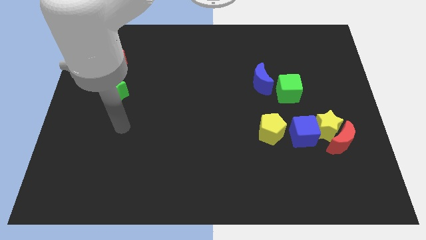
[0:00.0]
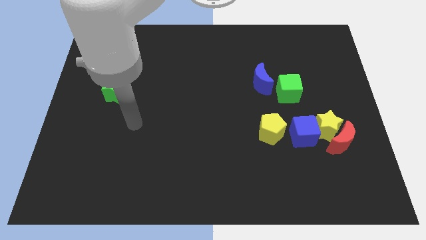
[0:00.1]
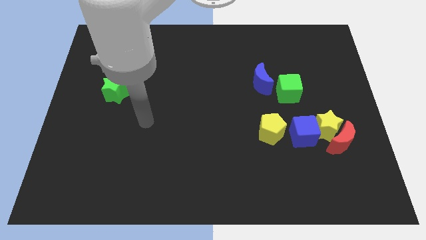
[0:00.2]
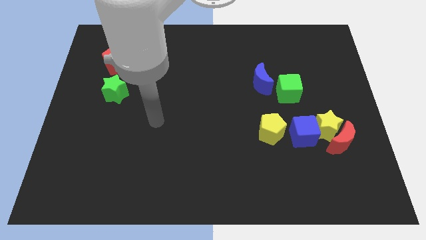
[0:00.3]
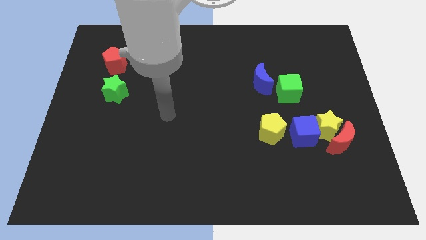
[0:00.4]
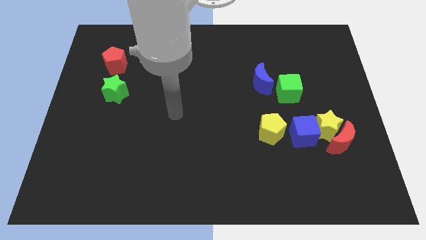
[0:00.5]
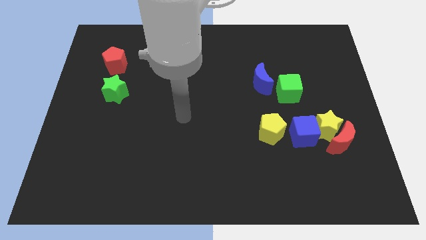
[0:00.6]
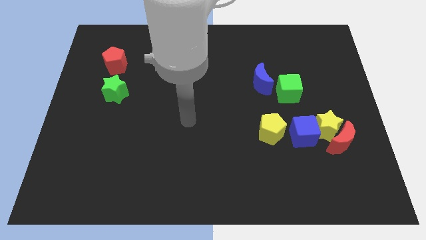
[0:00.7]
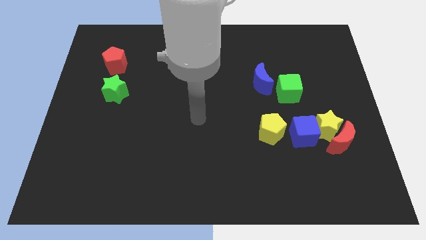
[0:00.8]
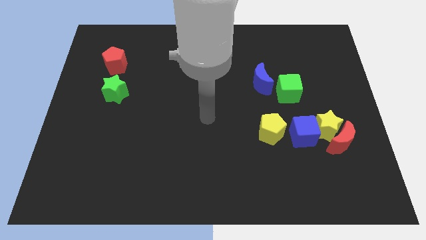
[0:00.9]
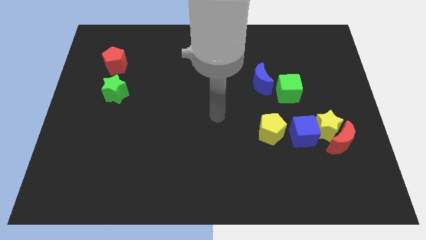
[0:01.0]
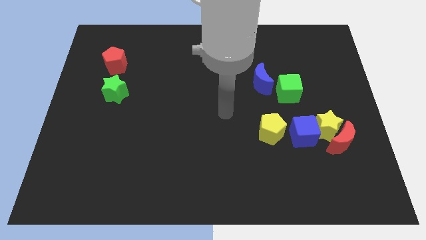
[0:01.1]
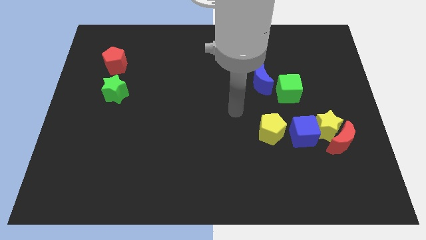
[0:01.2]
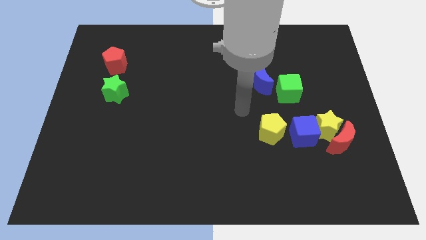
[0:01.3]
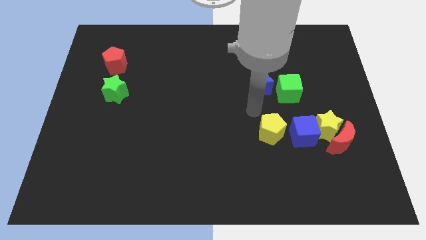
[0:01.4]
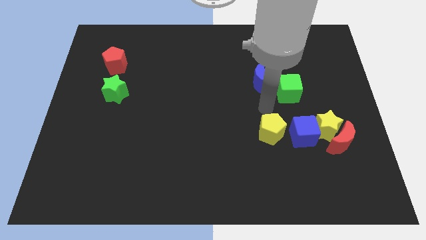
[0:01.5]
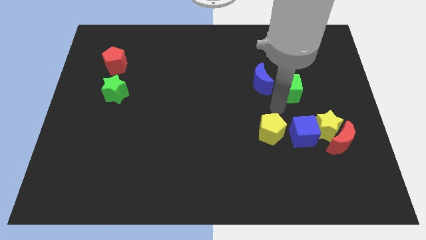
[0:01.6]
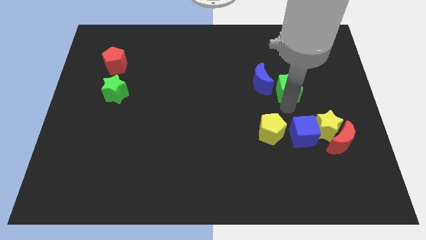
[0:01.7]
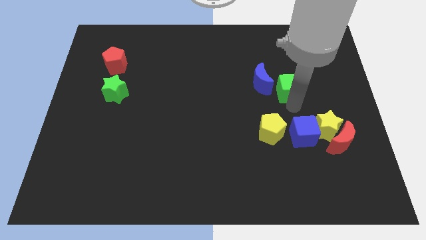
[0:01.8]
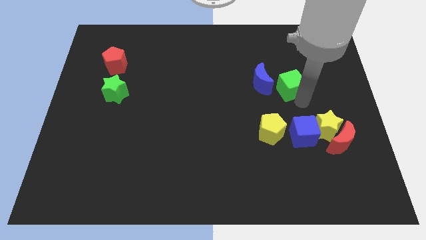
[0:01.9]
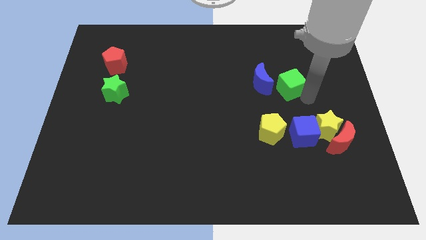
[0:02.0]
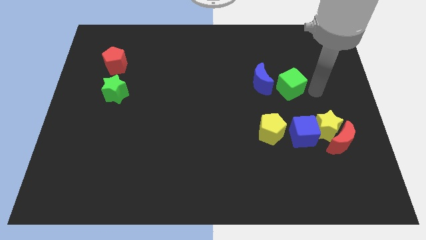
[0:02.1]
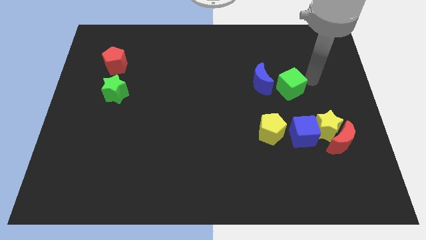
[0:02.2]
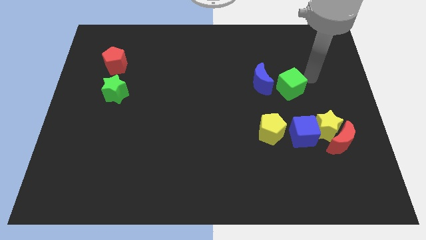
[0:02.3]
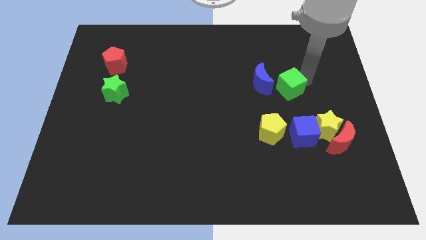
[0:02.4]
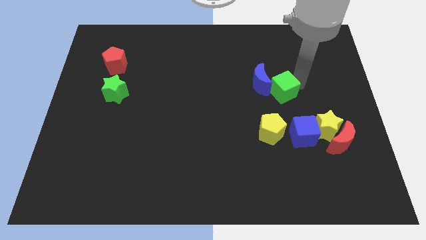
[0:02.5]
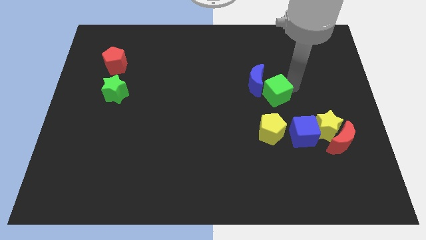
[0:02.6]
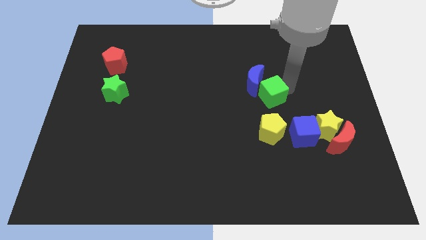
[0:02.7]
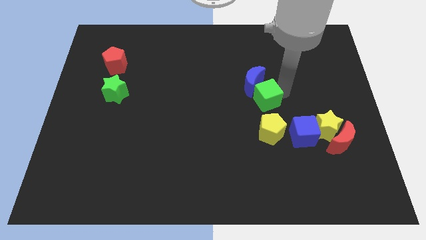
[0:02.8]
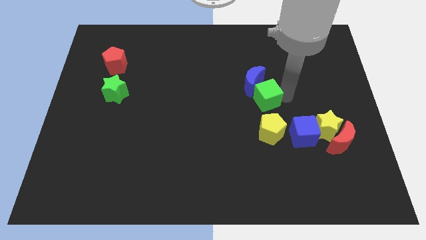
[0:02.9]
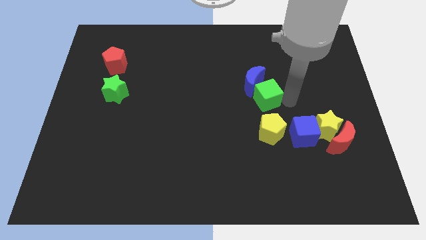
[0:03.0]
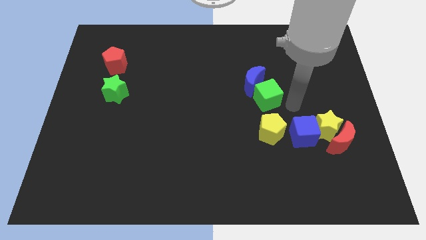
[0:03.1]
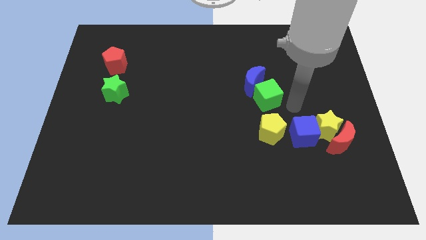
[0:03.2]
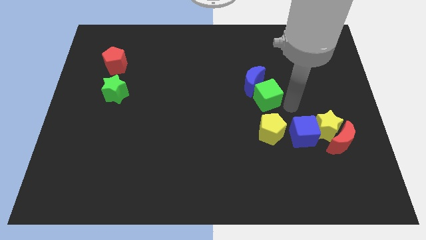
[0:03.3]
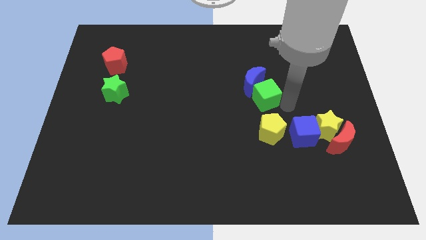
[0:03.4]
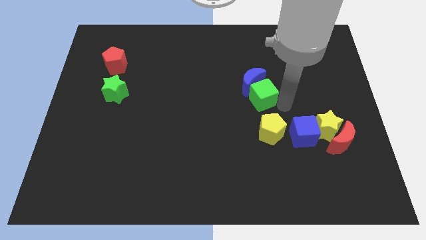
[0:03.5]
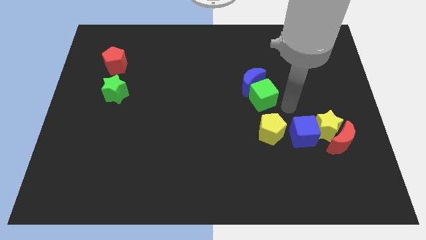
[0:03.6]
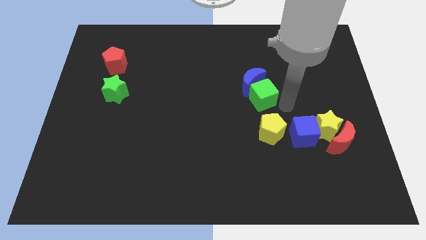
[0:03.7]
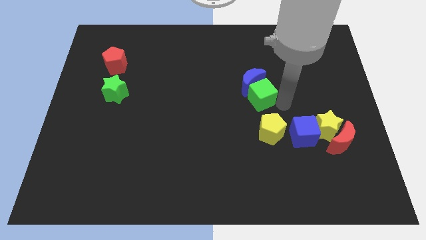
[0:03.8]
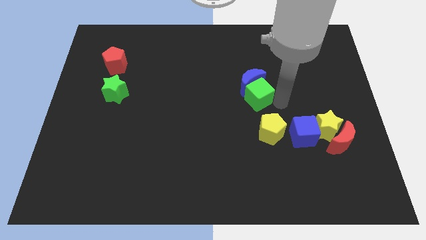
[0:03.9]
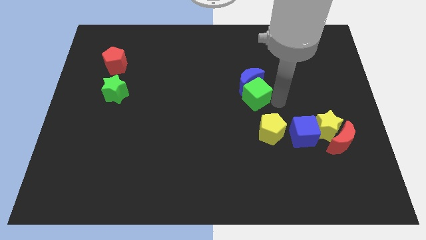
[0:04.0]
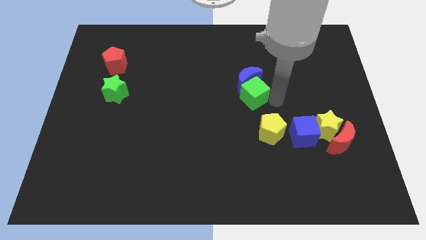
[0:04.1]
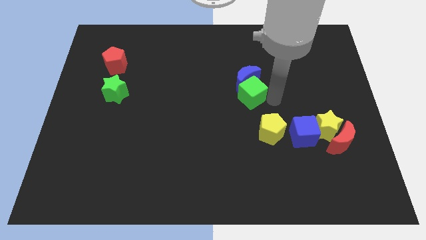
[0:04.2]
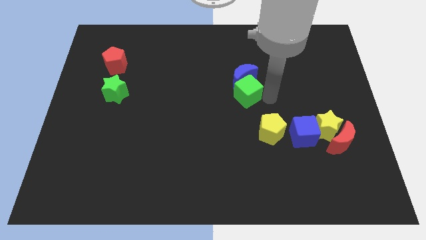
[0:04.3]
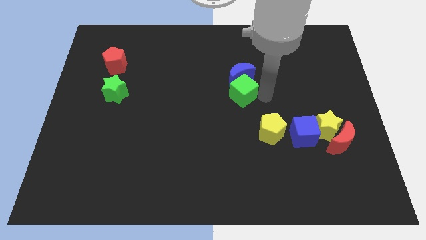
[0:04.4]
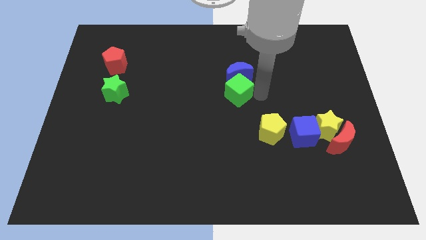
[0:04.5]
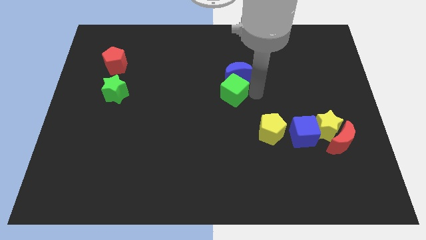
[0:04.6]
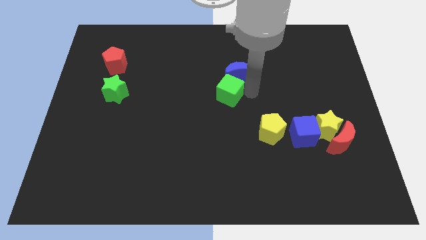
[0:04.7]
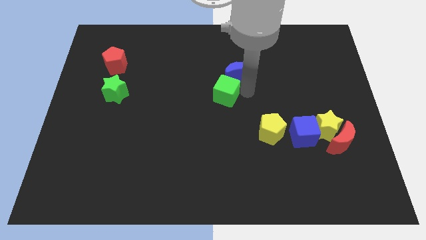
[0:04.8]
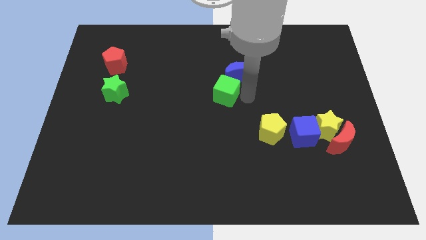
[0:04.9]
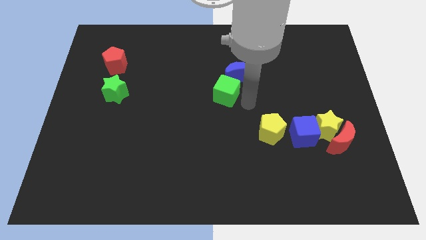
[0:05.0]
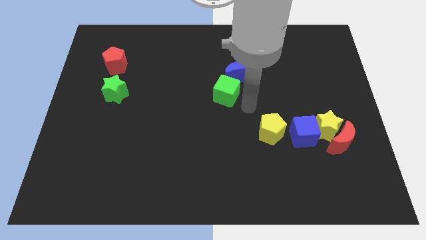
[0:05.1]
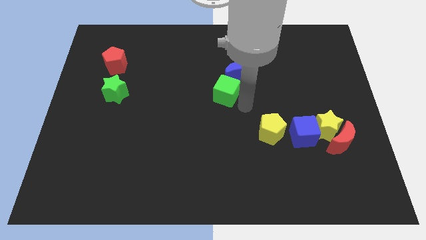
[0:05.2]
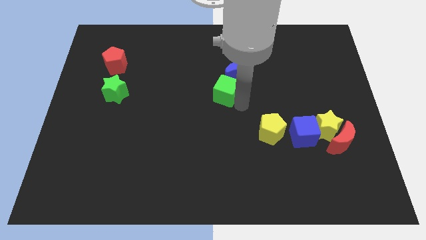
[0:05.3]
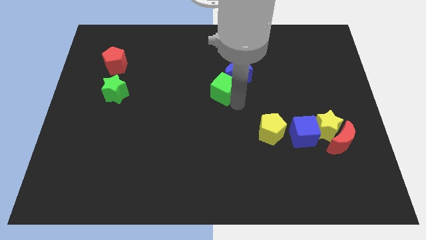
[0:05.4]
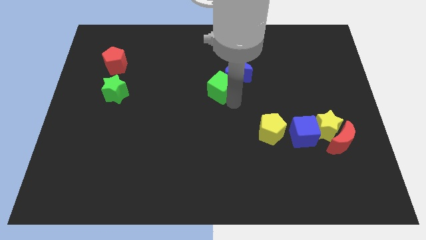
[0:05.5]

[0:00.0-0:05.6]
move the green cube left of the blue moon

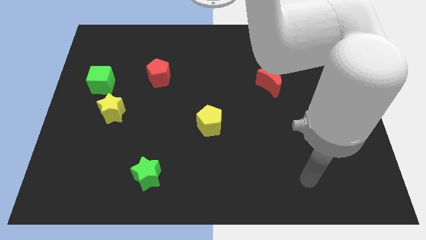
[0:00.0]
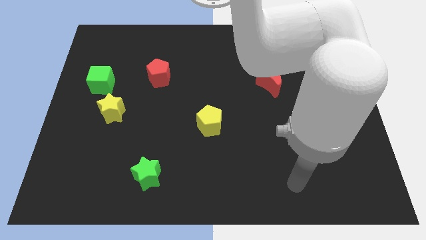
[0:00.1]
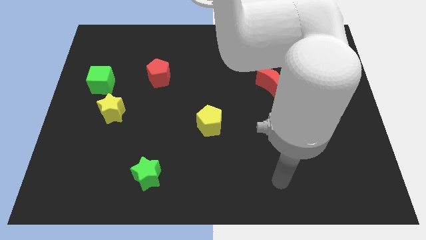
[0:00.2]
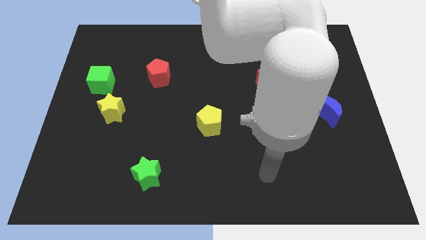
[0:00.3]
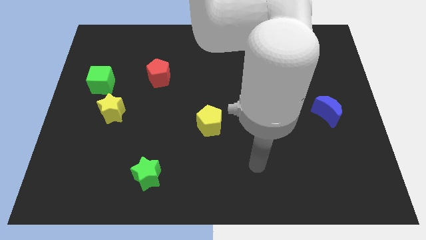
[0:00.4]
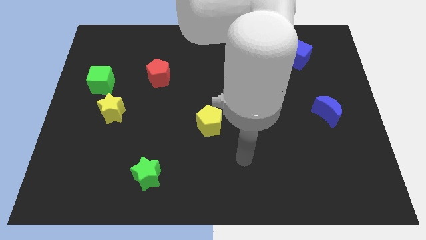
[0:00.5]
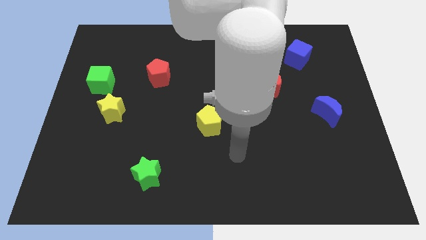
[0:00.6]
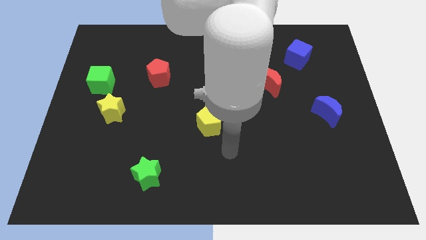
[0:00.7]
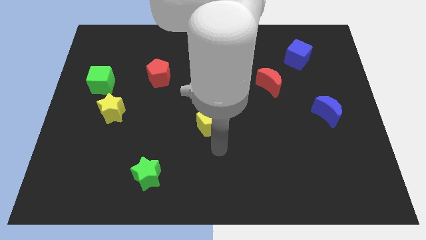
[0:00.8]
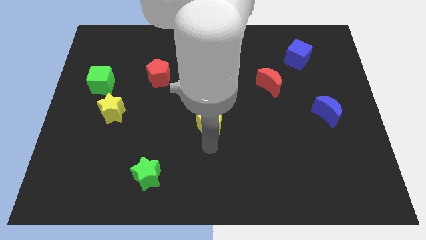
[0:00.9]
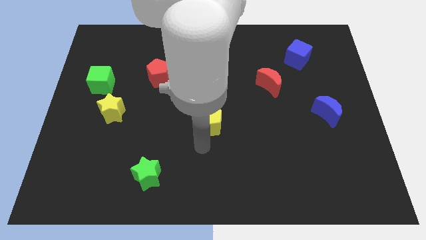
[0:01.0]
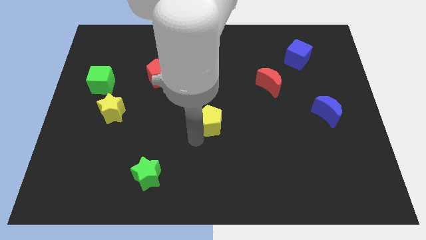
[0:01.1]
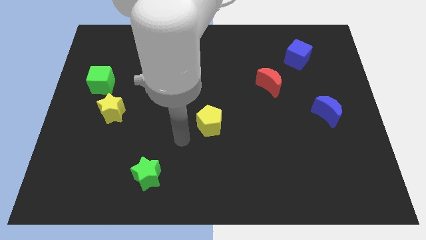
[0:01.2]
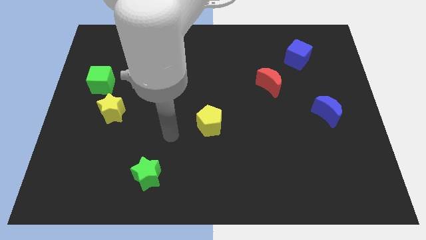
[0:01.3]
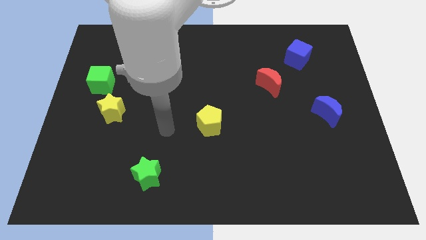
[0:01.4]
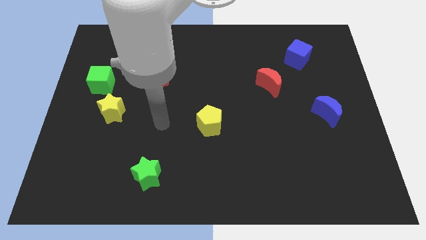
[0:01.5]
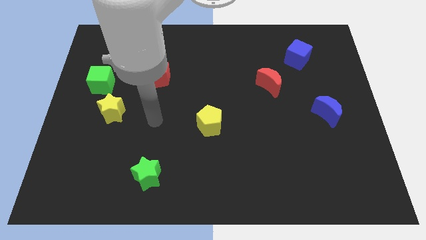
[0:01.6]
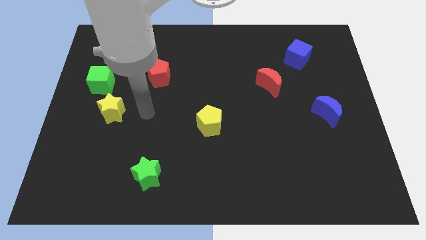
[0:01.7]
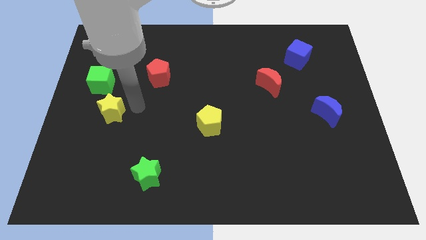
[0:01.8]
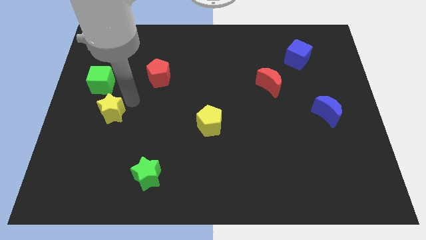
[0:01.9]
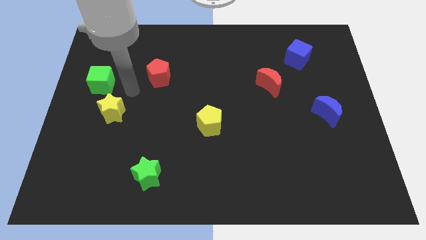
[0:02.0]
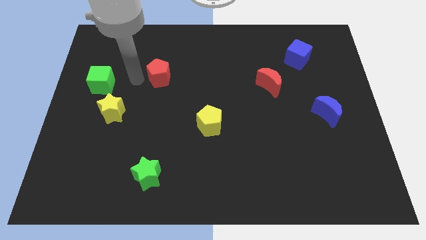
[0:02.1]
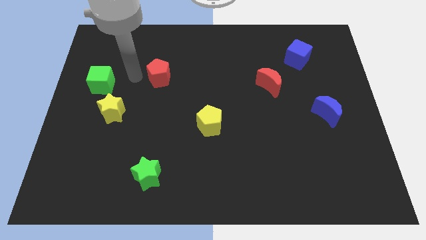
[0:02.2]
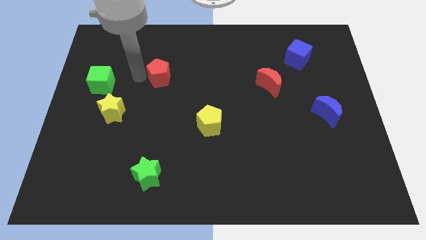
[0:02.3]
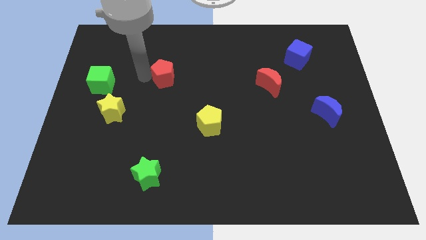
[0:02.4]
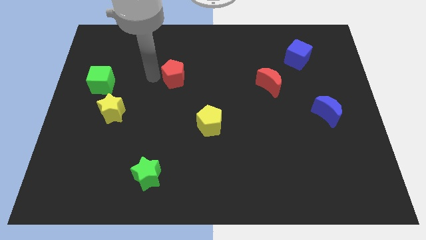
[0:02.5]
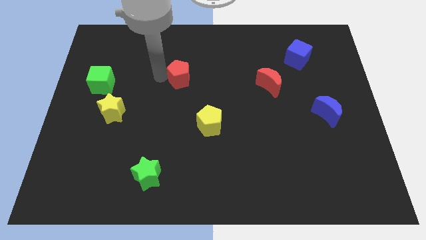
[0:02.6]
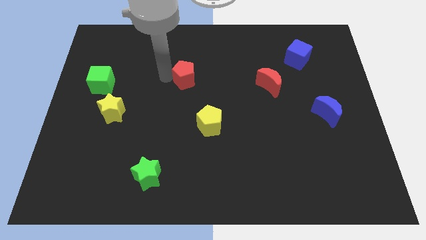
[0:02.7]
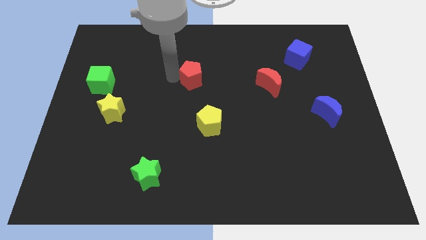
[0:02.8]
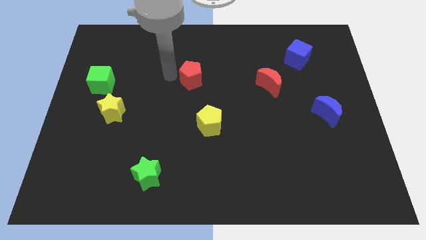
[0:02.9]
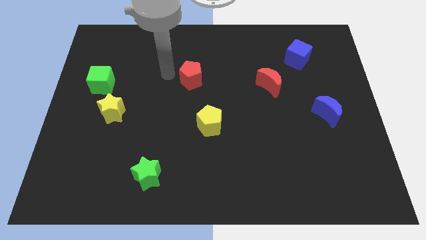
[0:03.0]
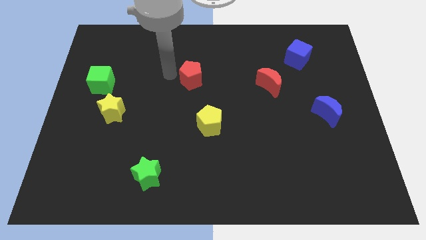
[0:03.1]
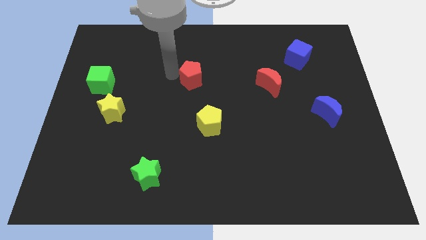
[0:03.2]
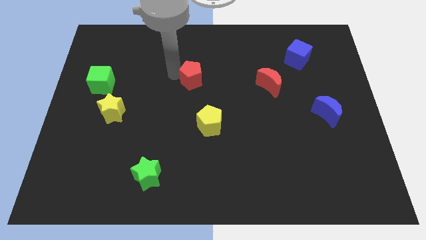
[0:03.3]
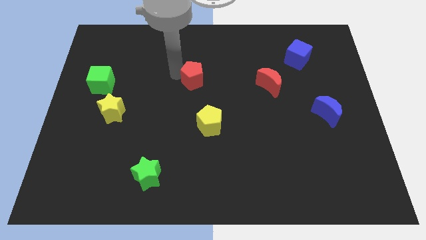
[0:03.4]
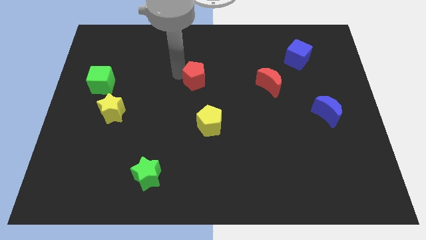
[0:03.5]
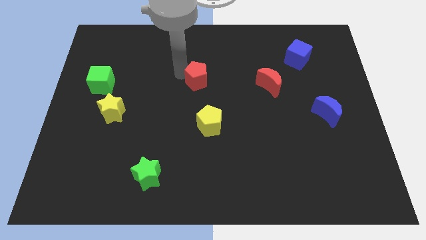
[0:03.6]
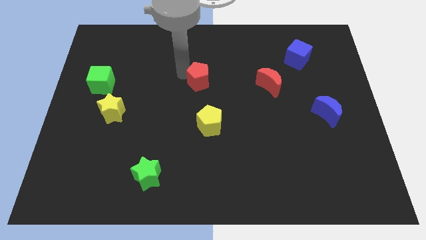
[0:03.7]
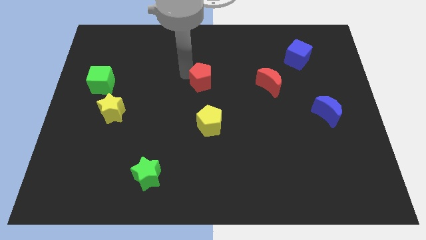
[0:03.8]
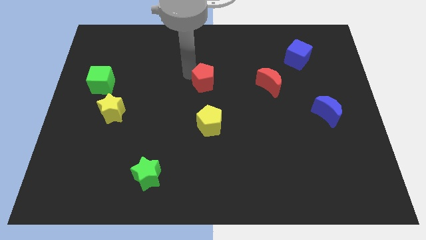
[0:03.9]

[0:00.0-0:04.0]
put the red pentagon left of the red moon
